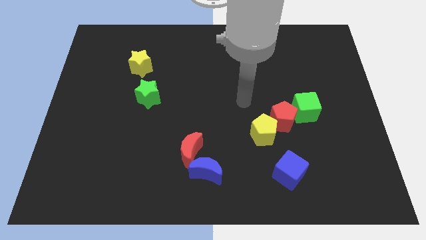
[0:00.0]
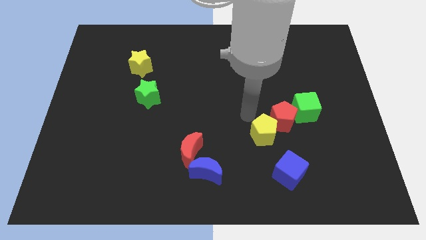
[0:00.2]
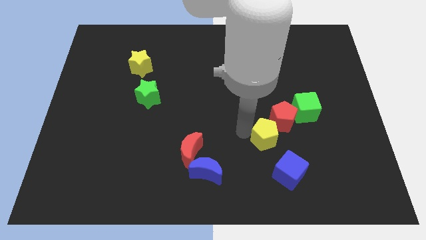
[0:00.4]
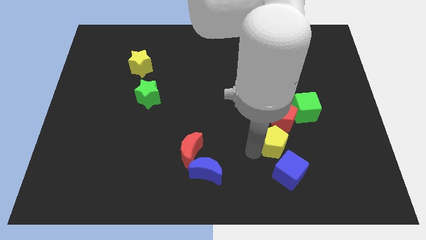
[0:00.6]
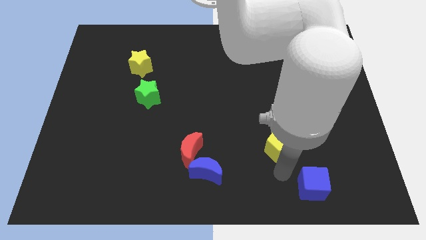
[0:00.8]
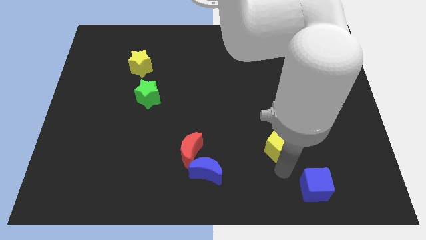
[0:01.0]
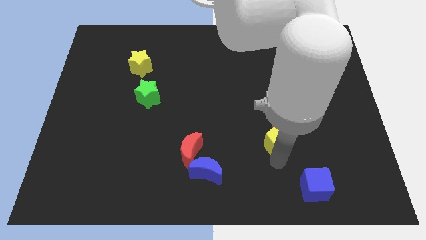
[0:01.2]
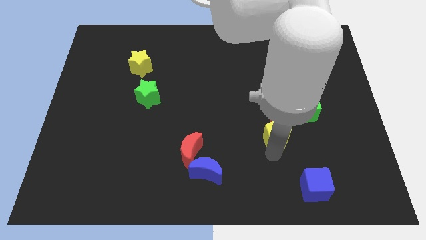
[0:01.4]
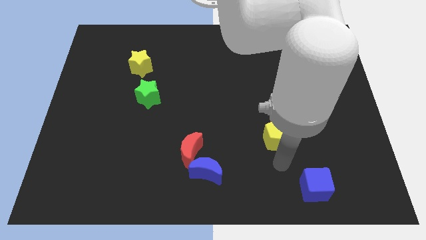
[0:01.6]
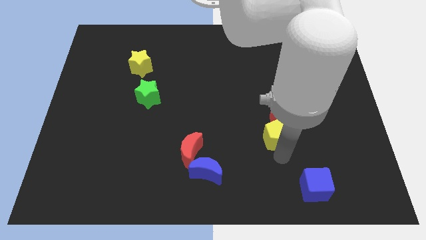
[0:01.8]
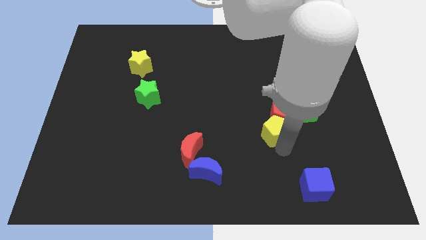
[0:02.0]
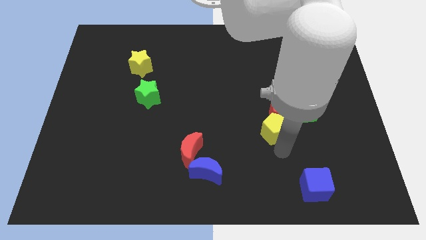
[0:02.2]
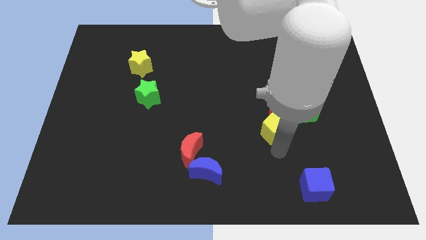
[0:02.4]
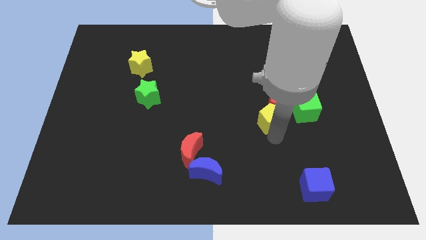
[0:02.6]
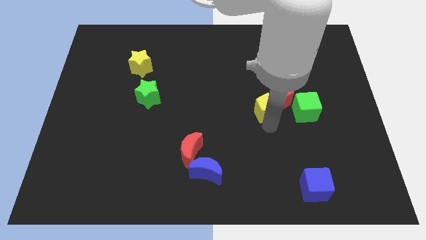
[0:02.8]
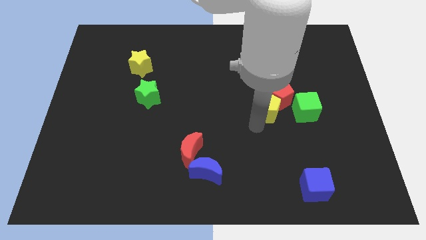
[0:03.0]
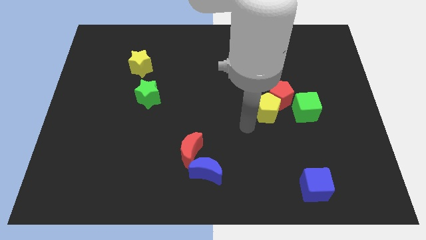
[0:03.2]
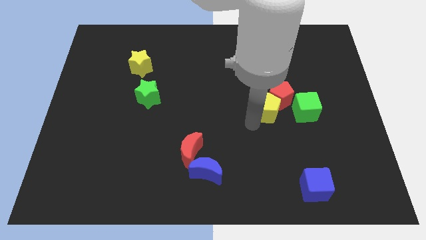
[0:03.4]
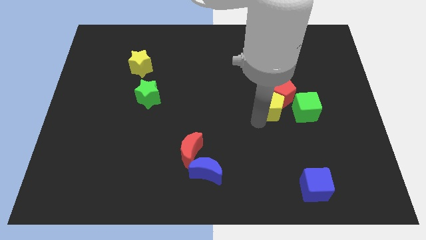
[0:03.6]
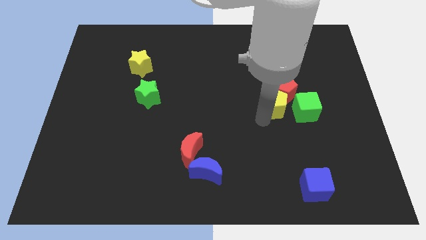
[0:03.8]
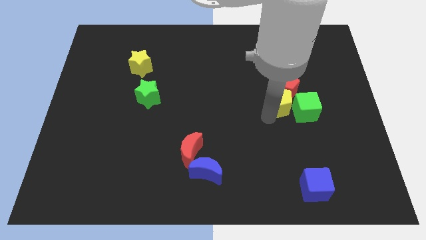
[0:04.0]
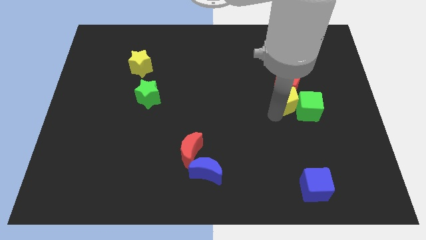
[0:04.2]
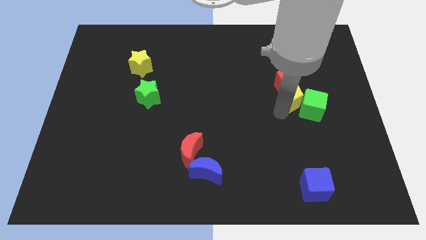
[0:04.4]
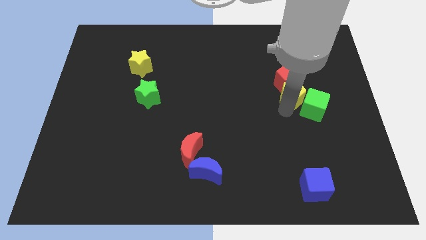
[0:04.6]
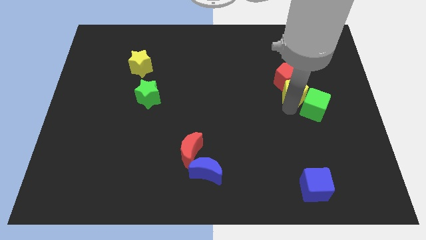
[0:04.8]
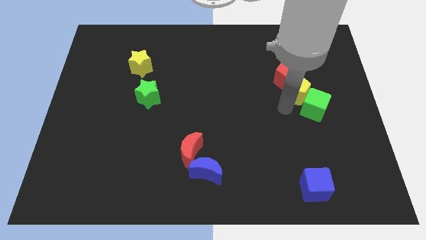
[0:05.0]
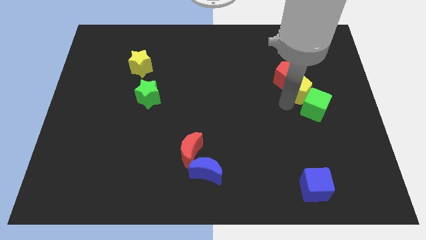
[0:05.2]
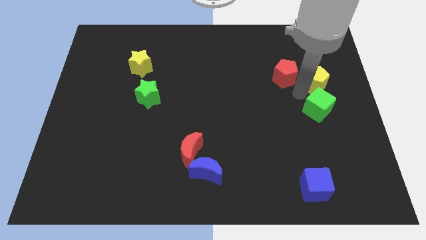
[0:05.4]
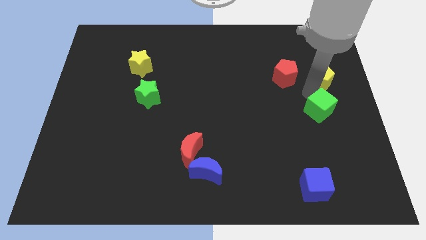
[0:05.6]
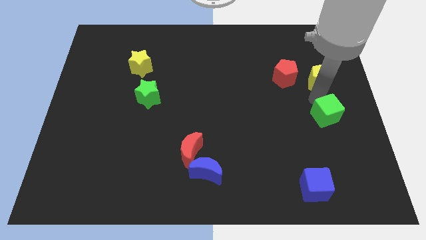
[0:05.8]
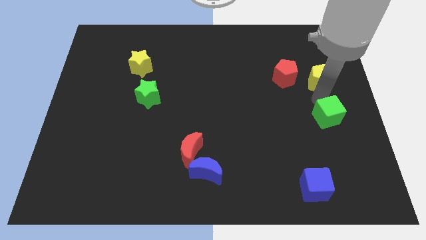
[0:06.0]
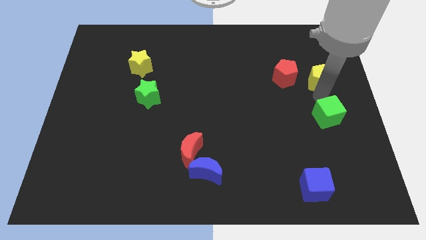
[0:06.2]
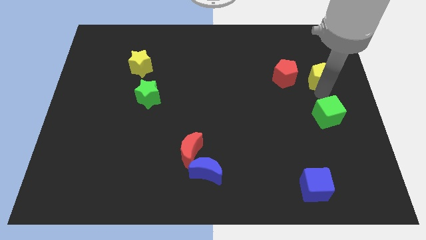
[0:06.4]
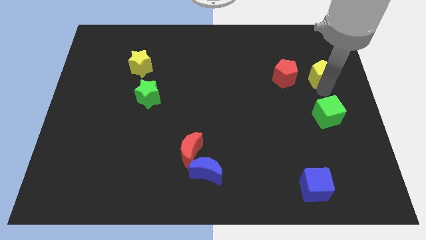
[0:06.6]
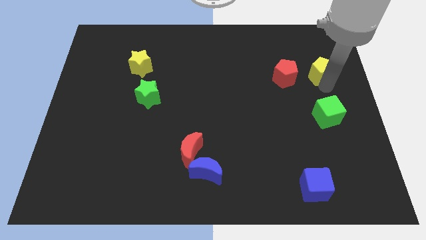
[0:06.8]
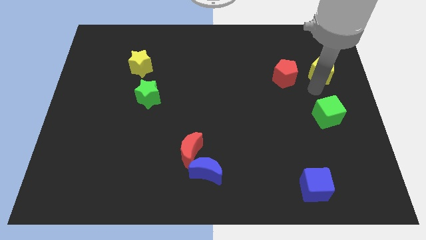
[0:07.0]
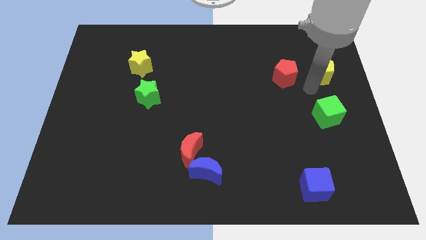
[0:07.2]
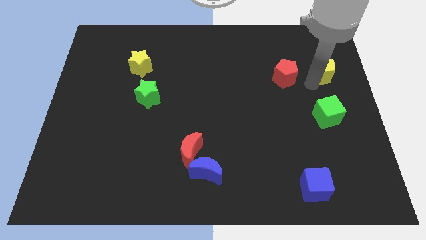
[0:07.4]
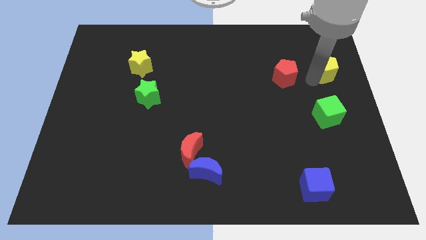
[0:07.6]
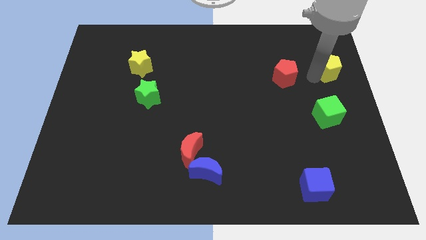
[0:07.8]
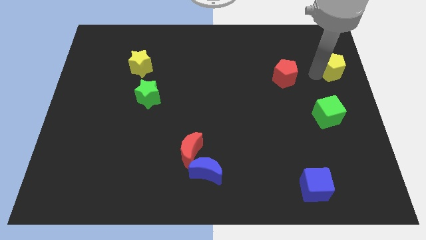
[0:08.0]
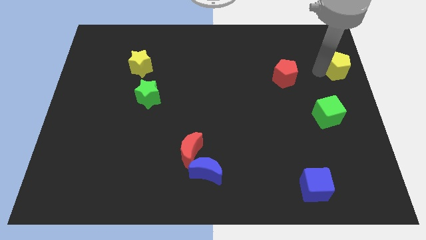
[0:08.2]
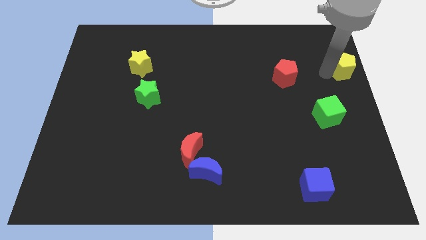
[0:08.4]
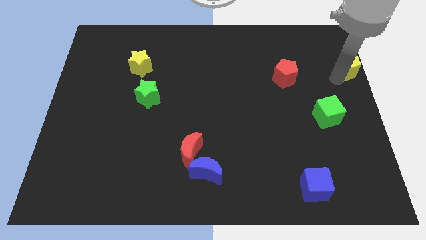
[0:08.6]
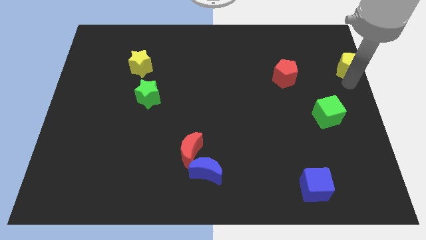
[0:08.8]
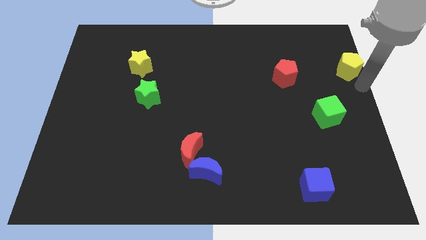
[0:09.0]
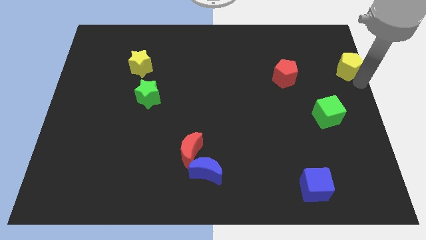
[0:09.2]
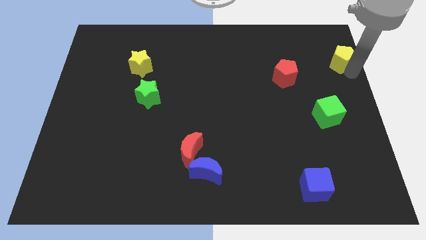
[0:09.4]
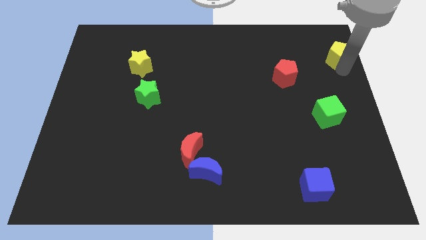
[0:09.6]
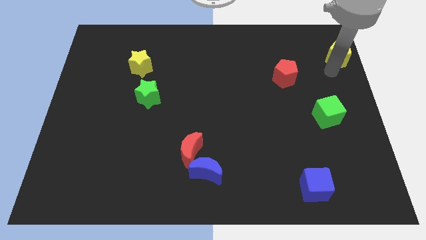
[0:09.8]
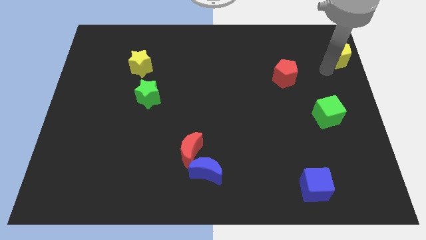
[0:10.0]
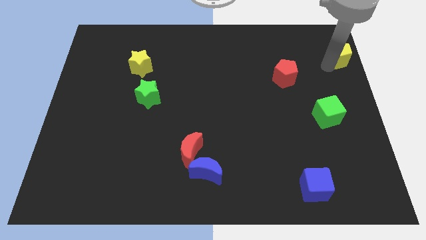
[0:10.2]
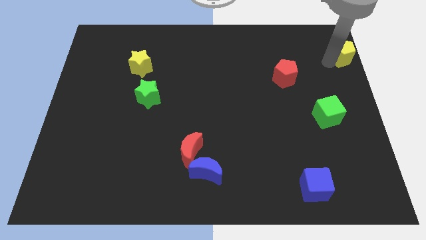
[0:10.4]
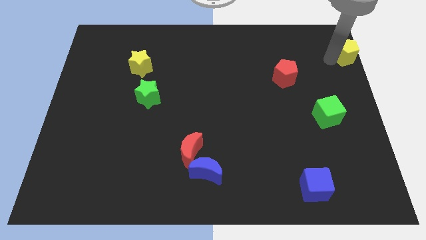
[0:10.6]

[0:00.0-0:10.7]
put the yellow pentagon to the top right corner
